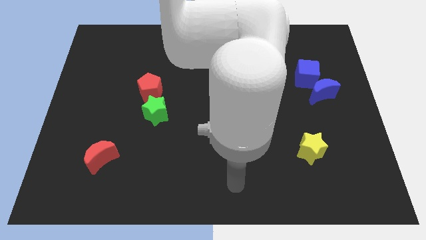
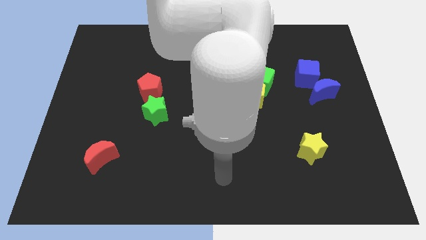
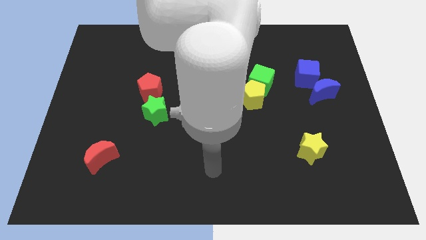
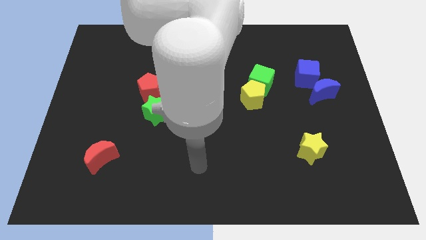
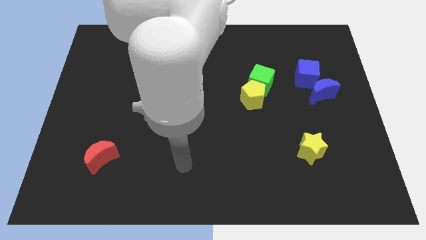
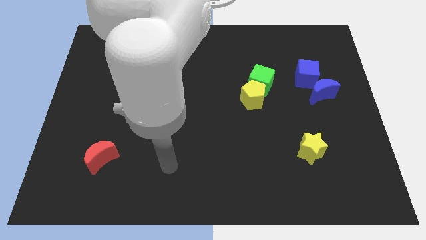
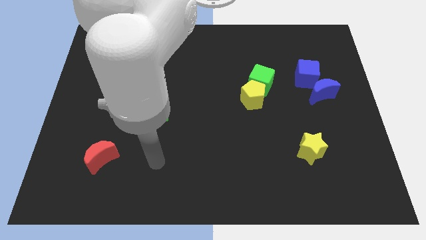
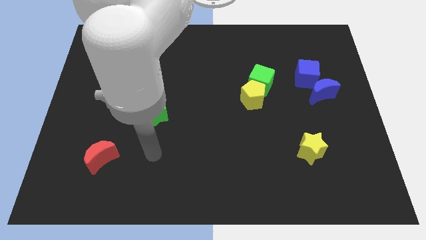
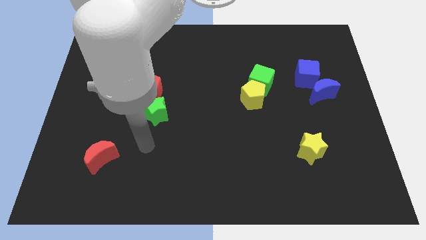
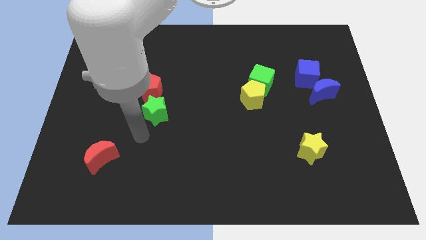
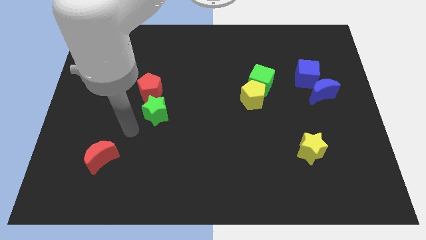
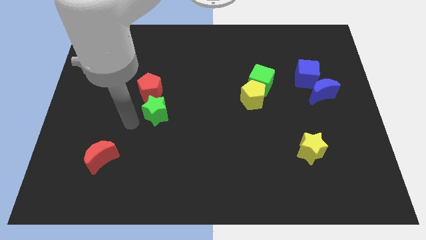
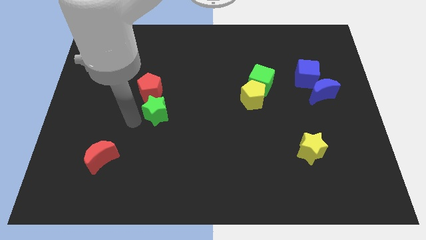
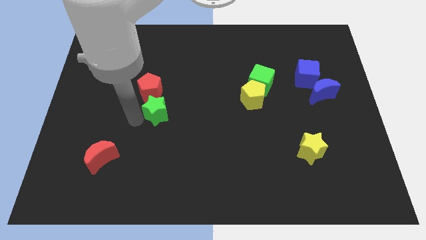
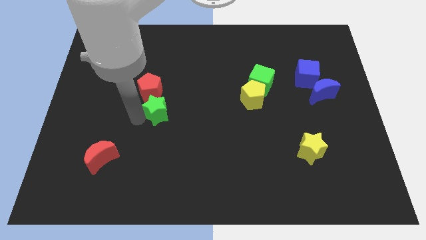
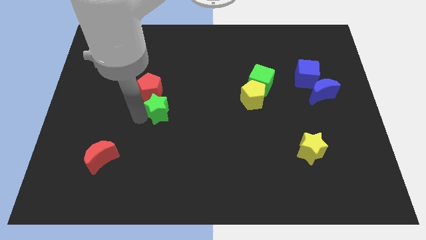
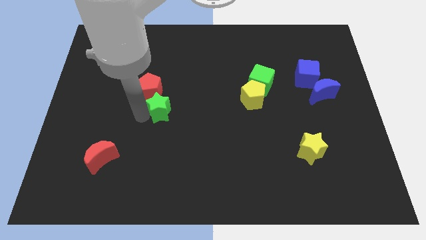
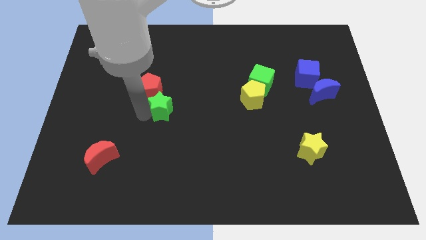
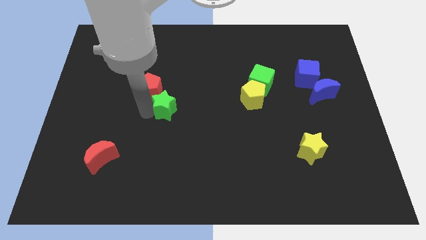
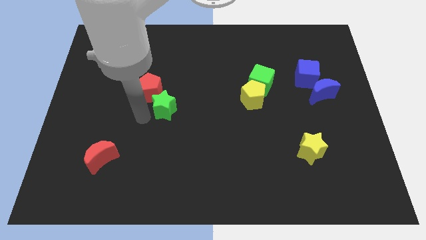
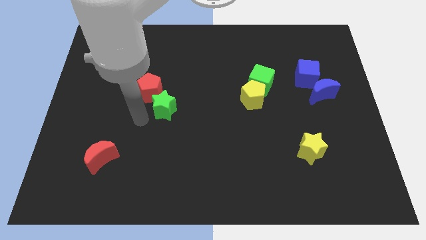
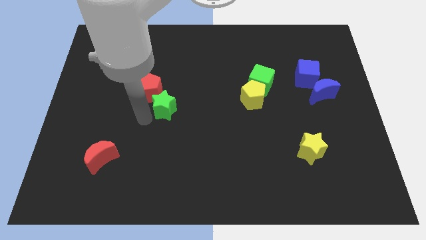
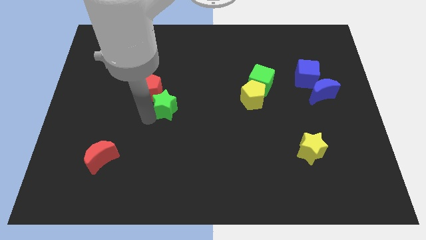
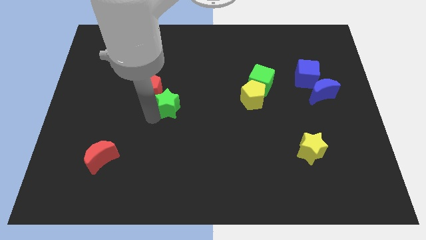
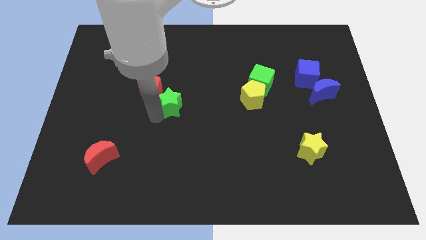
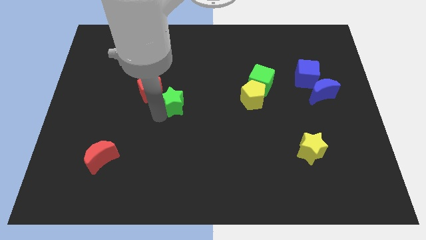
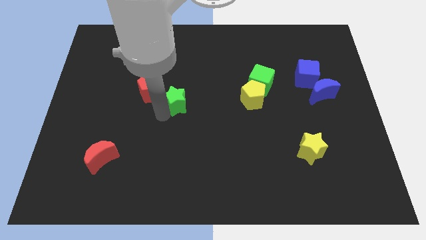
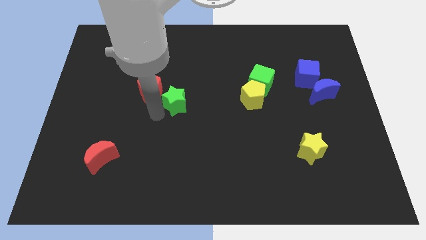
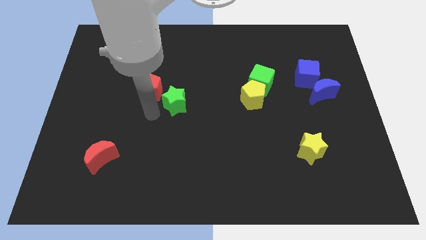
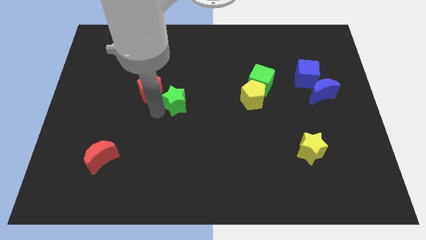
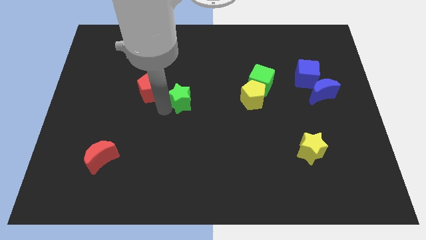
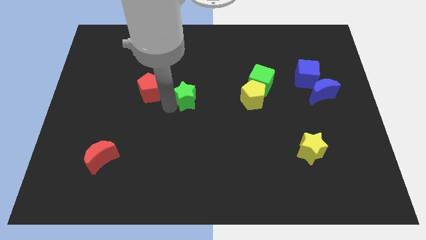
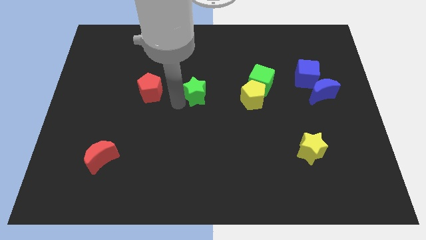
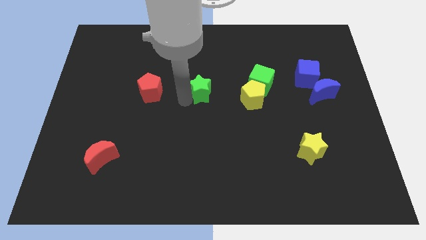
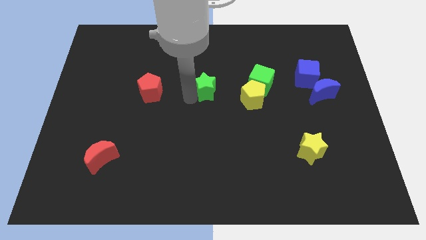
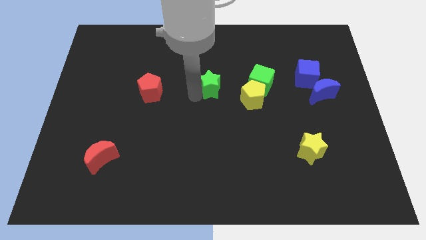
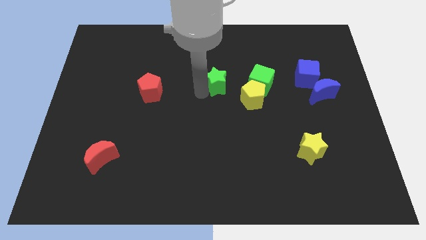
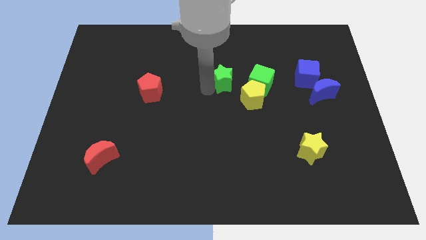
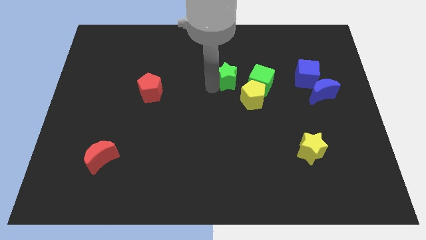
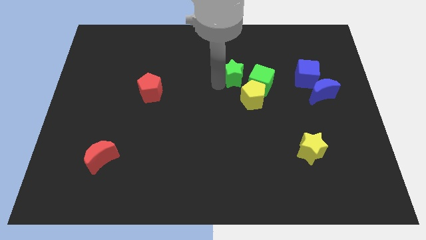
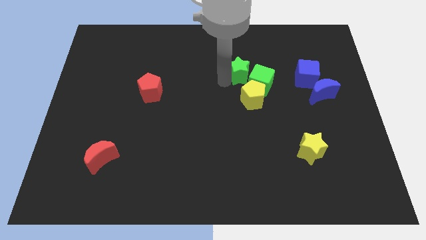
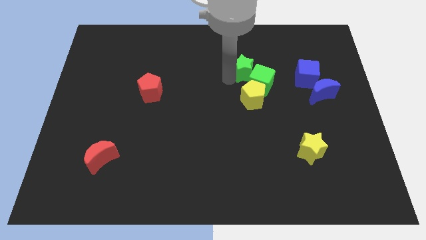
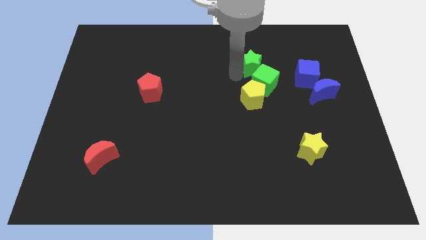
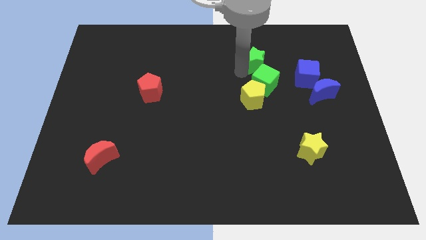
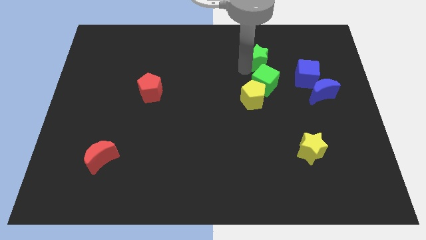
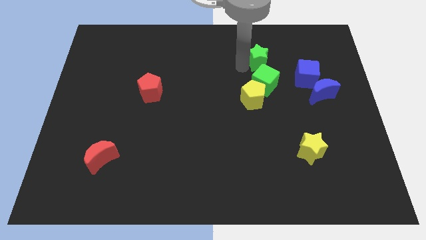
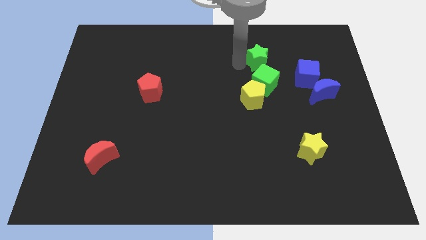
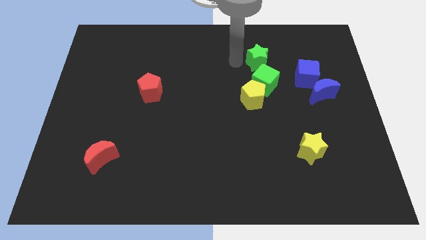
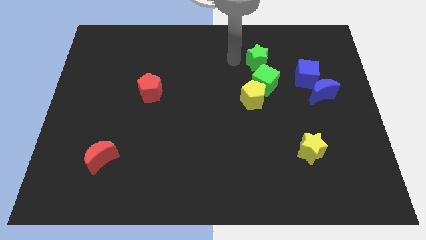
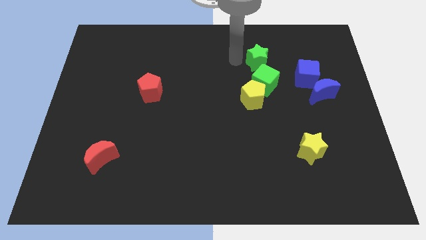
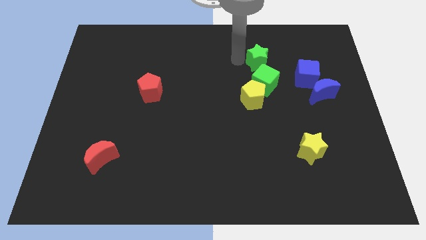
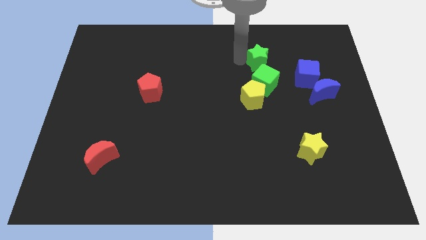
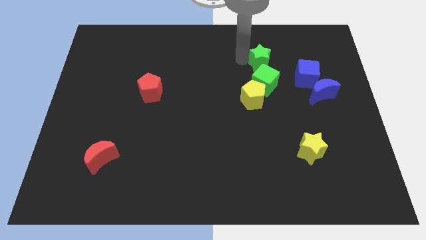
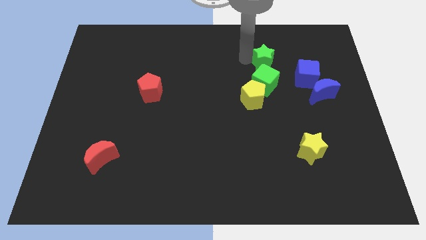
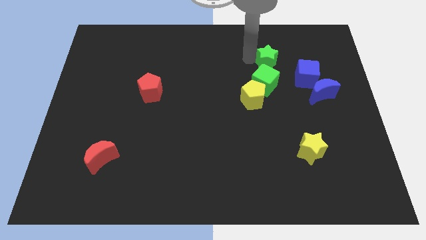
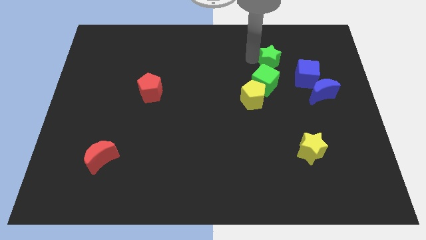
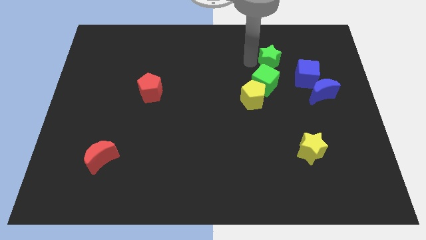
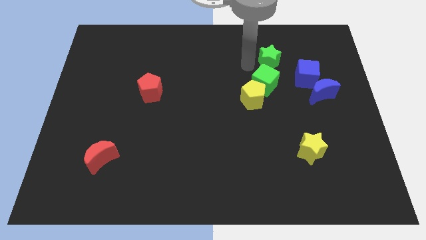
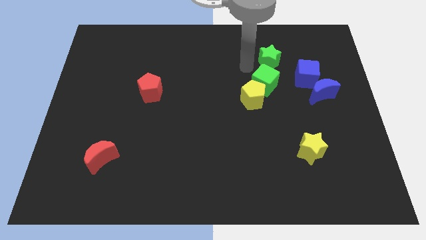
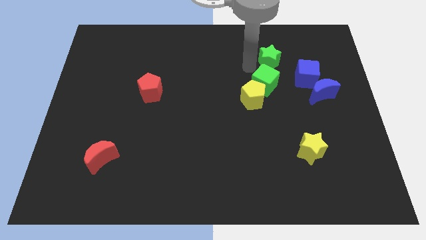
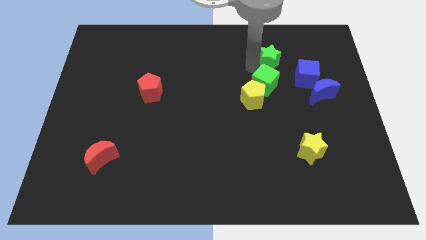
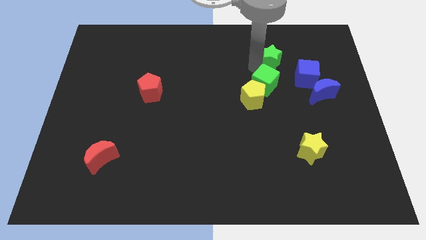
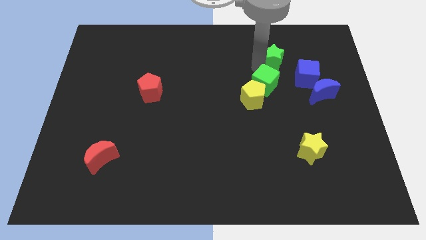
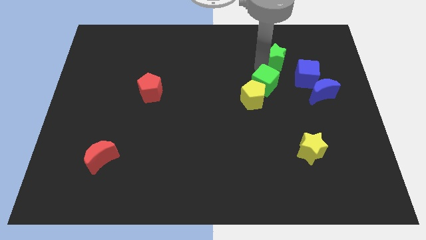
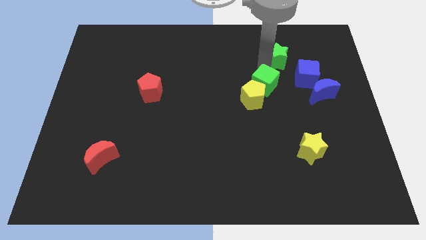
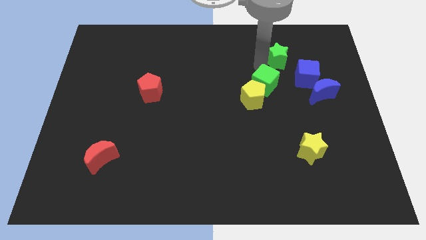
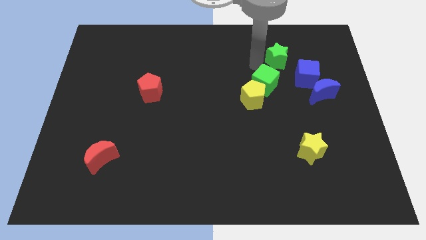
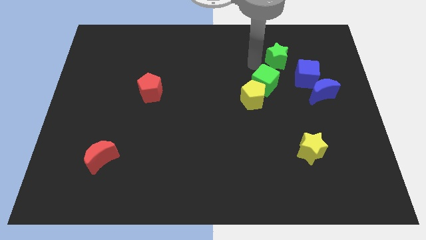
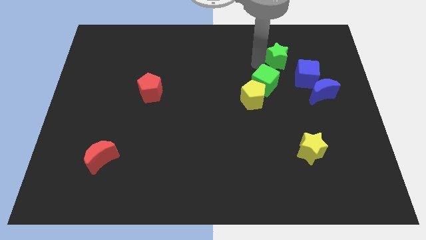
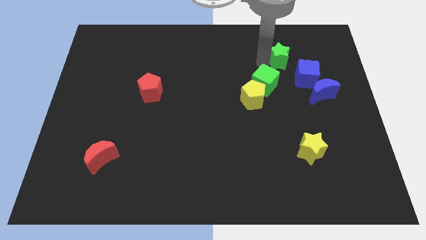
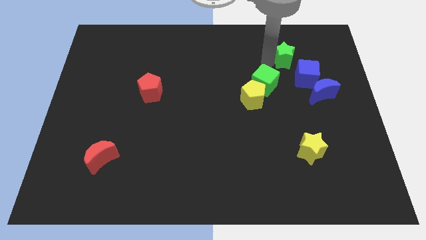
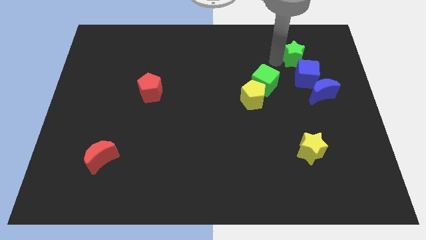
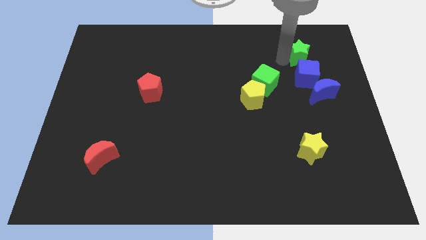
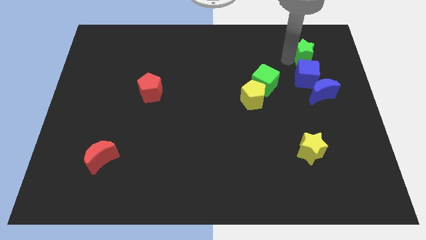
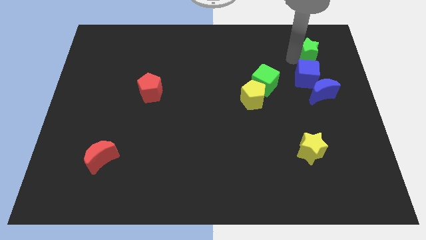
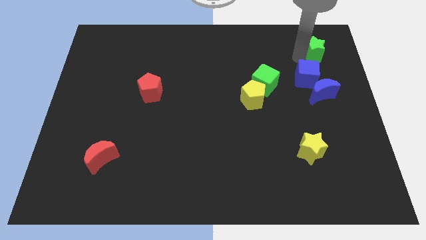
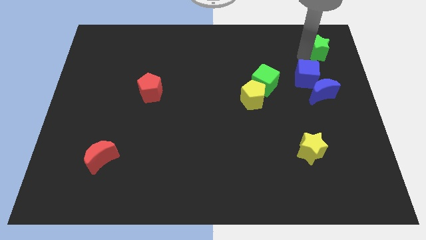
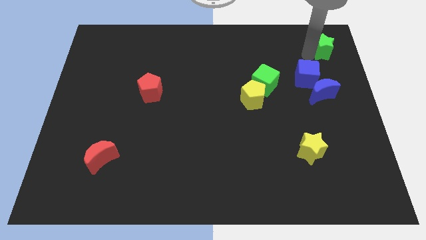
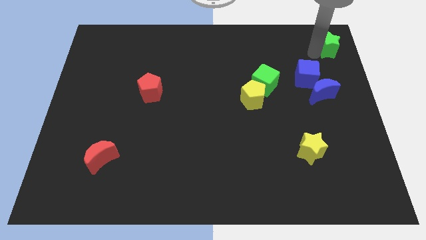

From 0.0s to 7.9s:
put the green star to the top right of the board
